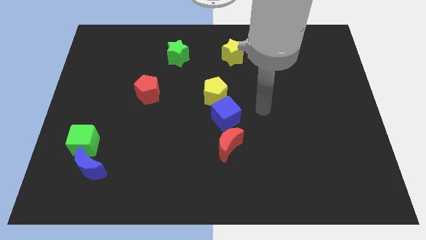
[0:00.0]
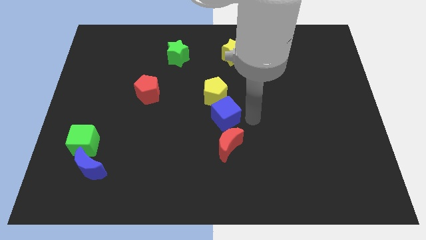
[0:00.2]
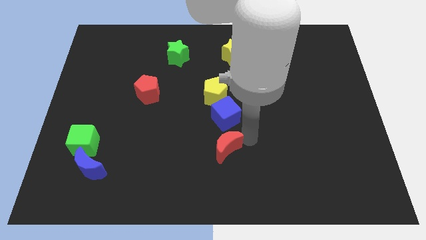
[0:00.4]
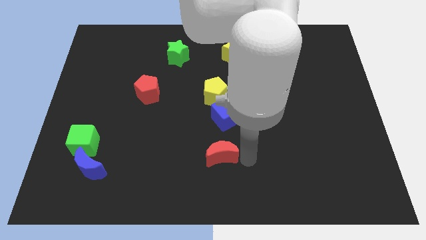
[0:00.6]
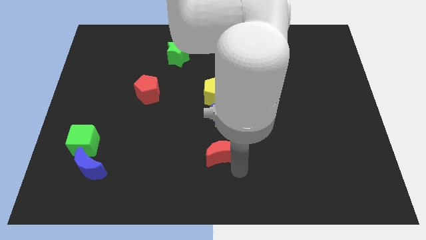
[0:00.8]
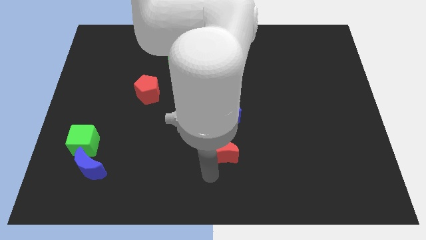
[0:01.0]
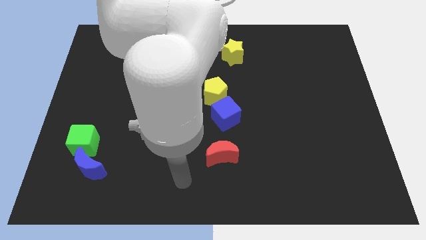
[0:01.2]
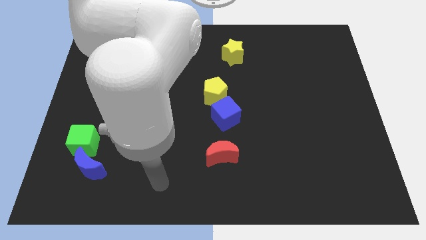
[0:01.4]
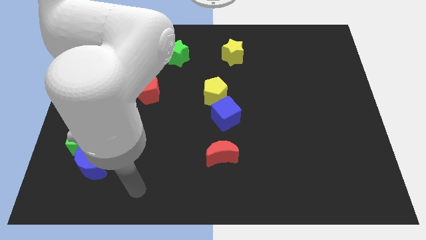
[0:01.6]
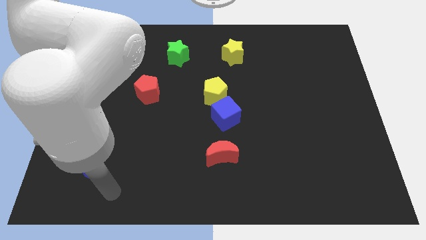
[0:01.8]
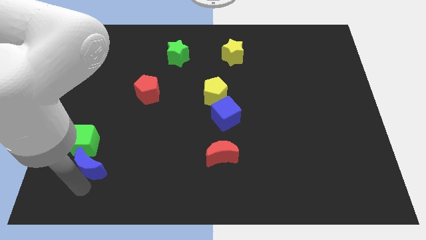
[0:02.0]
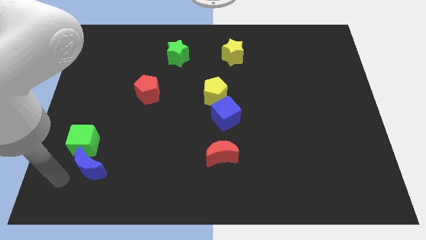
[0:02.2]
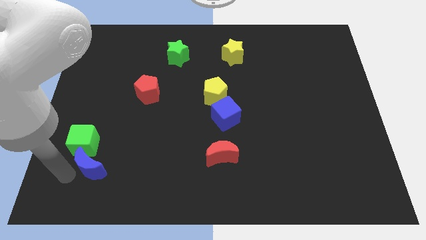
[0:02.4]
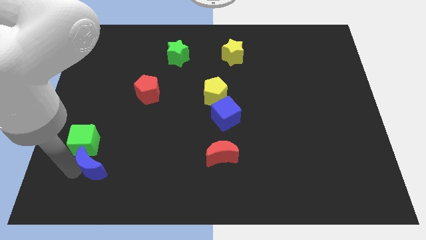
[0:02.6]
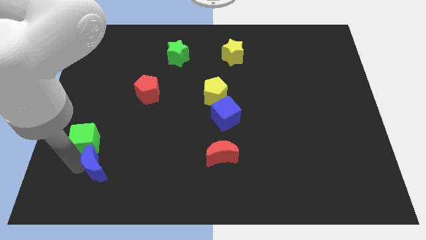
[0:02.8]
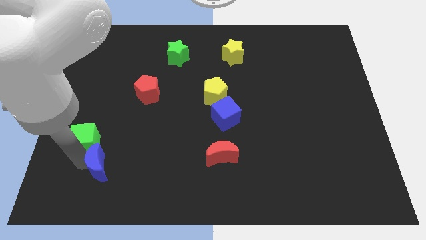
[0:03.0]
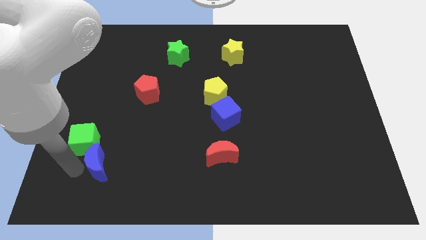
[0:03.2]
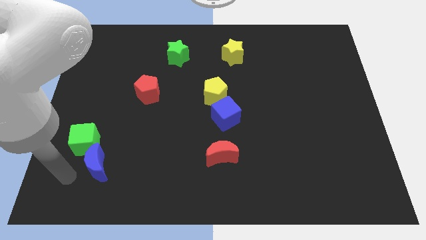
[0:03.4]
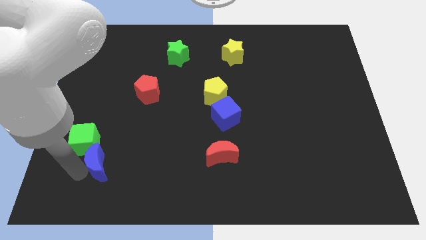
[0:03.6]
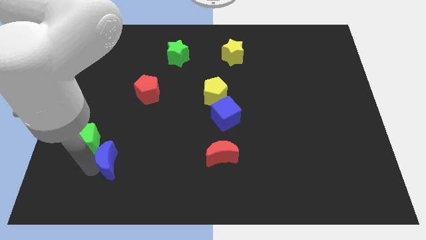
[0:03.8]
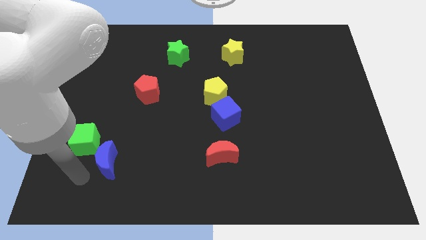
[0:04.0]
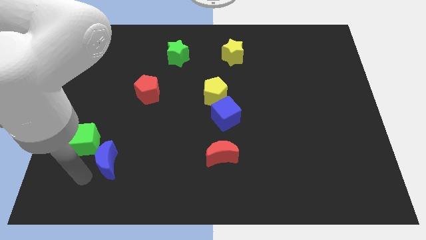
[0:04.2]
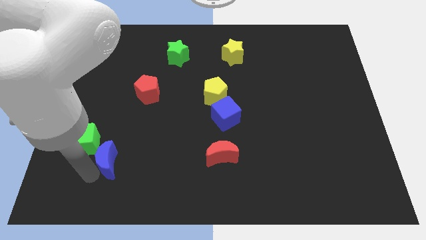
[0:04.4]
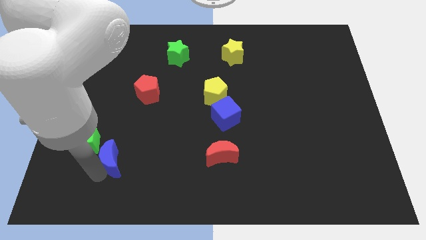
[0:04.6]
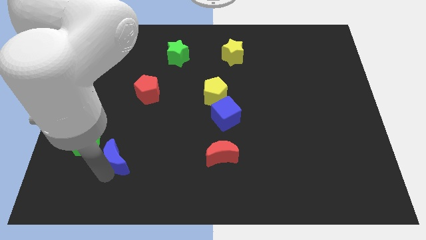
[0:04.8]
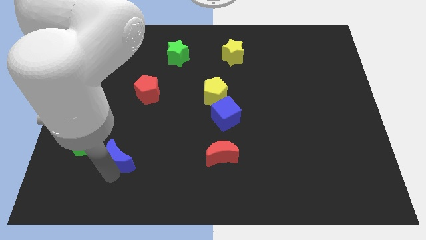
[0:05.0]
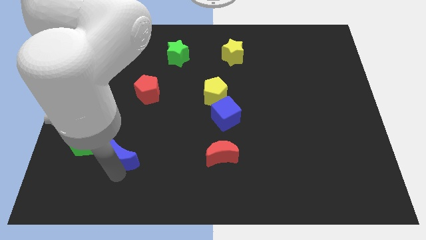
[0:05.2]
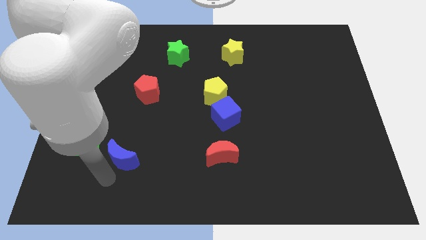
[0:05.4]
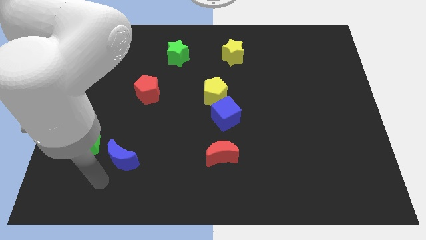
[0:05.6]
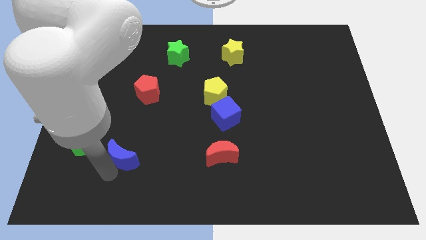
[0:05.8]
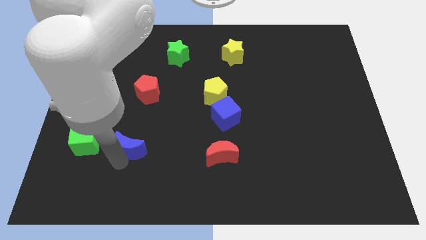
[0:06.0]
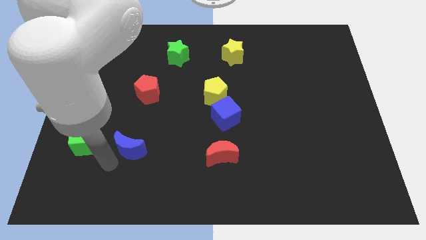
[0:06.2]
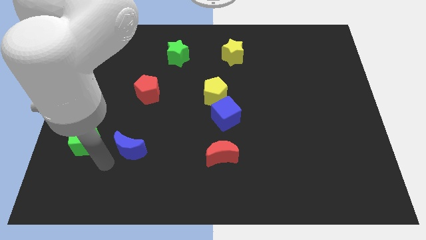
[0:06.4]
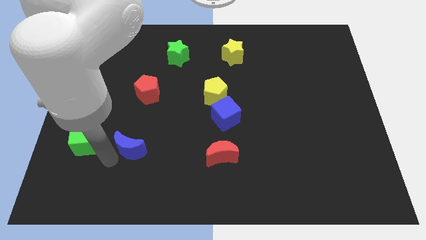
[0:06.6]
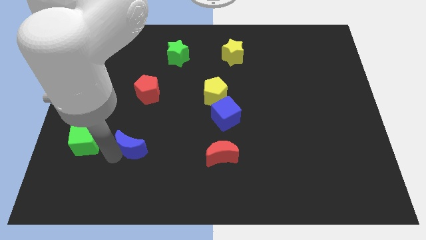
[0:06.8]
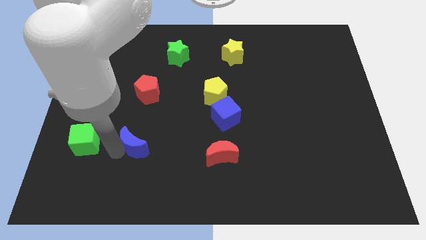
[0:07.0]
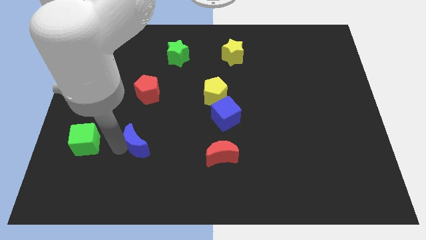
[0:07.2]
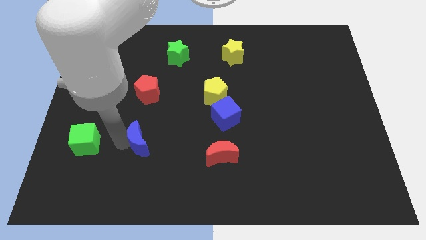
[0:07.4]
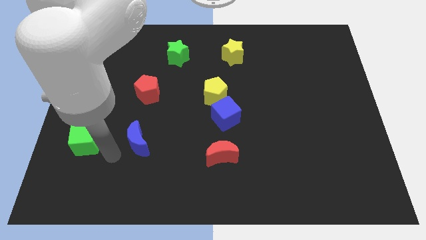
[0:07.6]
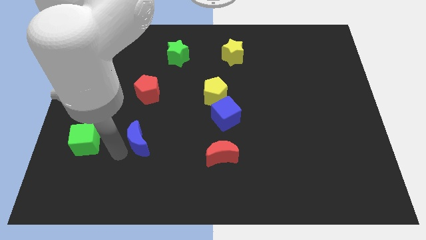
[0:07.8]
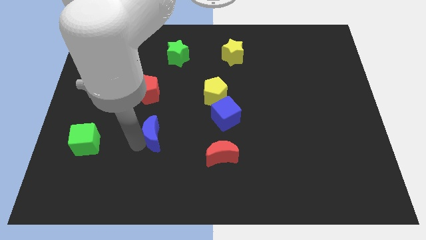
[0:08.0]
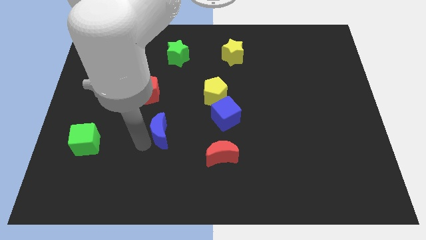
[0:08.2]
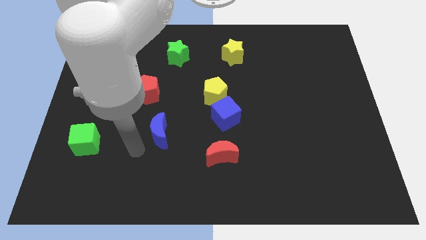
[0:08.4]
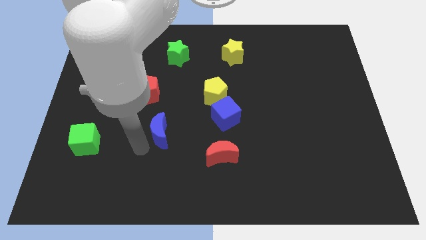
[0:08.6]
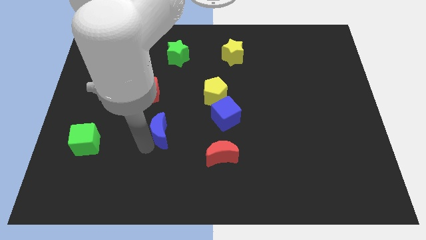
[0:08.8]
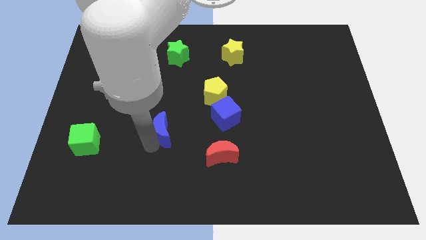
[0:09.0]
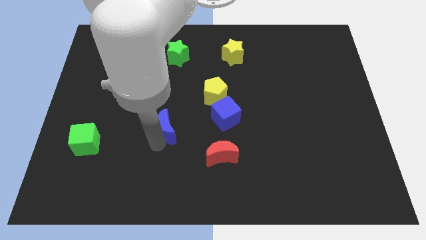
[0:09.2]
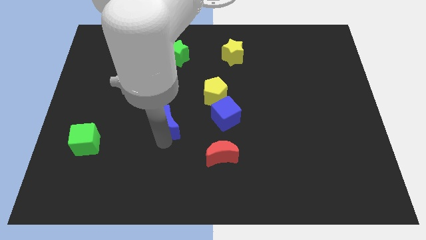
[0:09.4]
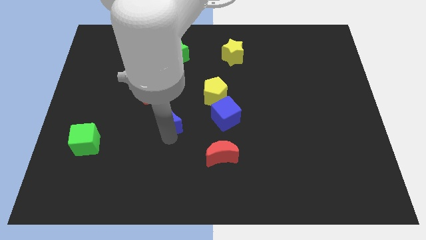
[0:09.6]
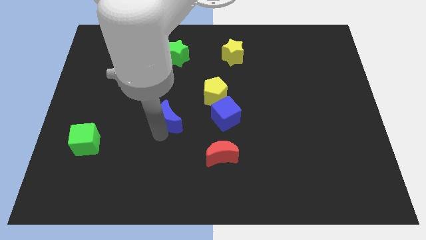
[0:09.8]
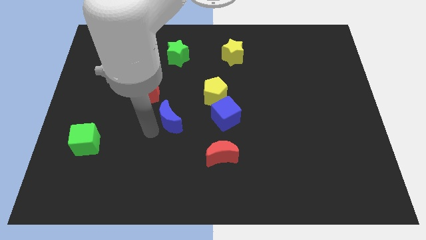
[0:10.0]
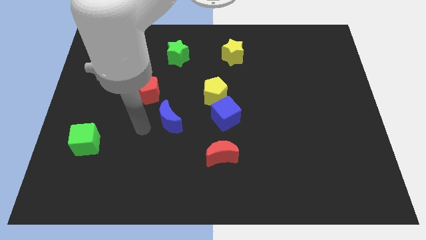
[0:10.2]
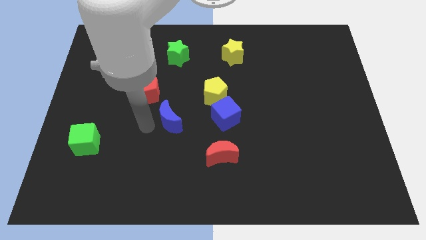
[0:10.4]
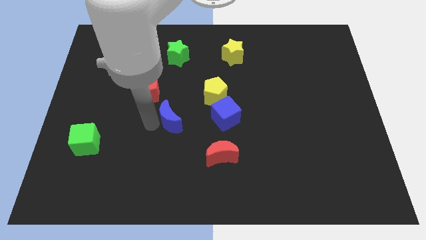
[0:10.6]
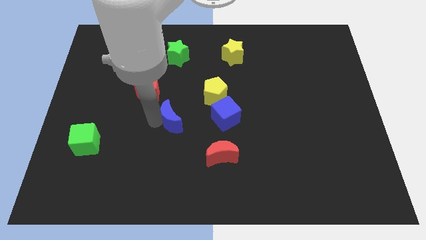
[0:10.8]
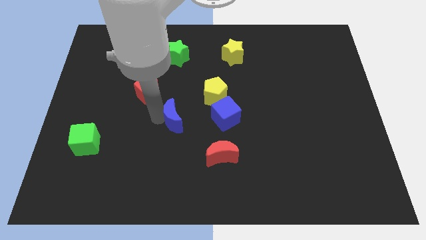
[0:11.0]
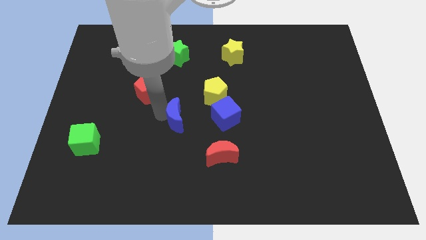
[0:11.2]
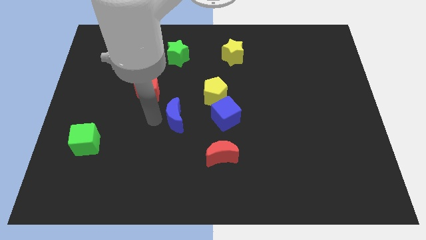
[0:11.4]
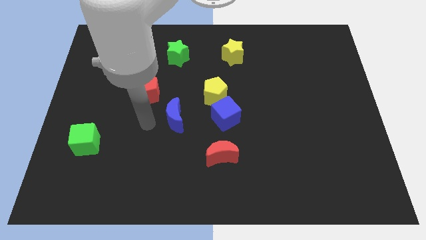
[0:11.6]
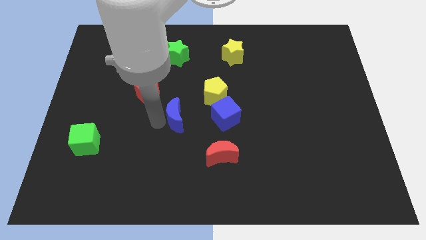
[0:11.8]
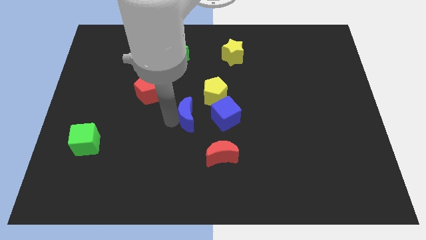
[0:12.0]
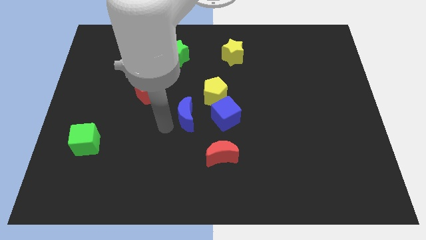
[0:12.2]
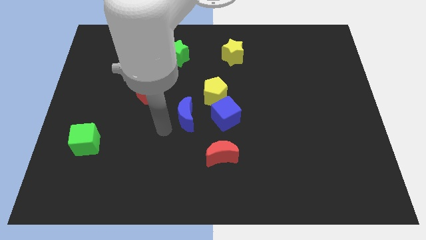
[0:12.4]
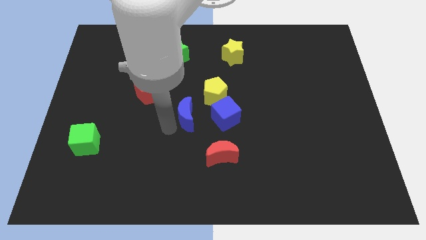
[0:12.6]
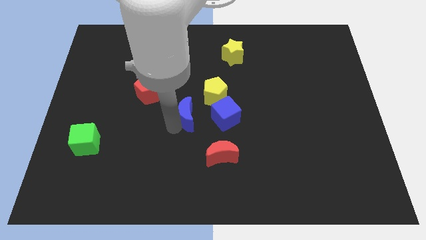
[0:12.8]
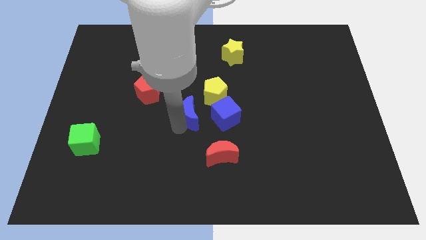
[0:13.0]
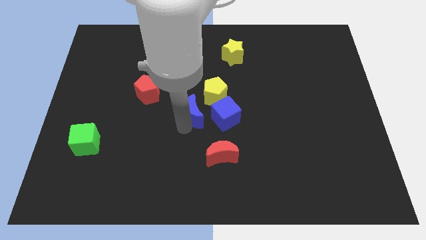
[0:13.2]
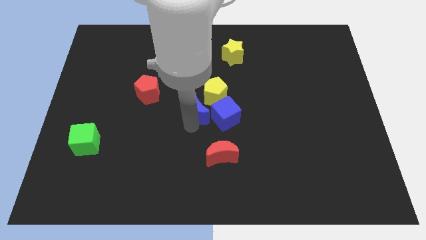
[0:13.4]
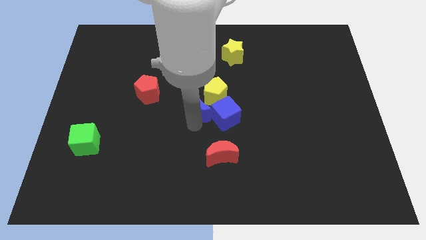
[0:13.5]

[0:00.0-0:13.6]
slide the blue moon close to the yellow pentagon
